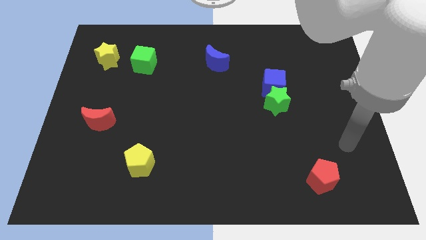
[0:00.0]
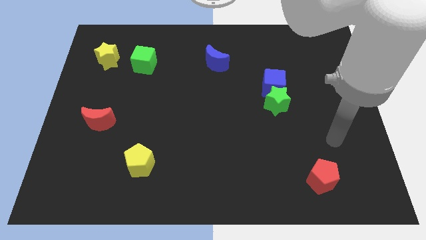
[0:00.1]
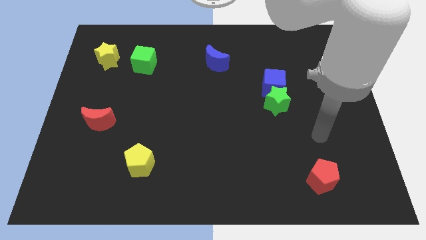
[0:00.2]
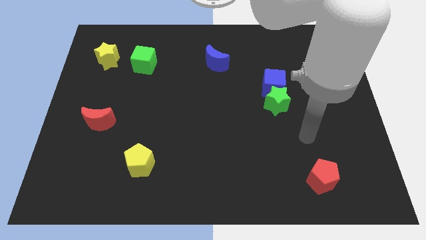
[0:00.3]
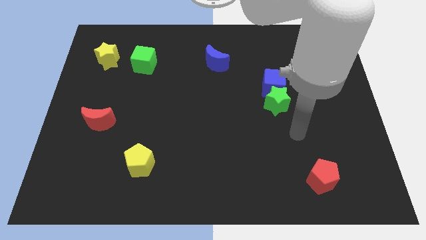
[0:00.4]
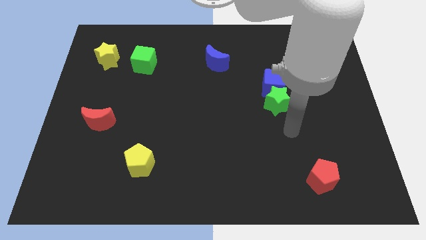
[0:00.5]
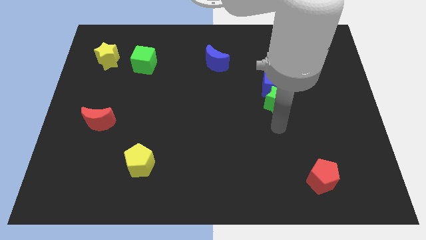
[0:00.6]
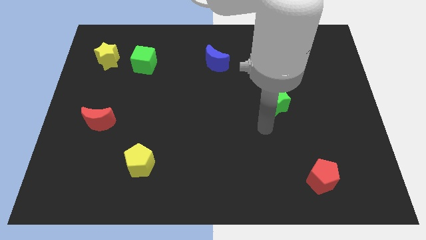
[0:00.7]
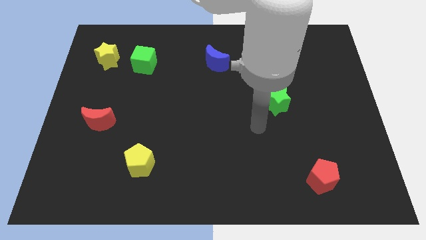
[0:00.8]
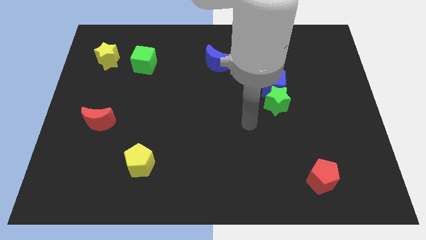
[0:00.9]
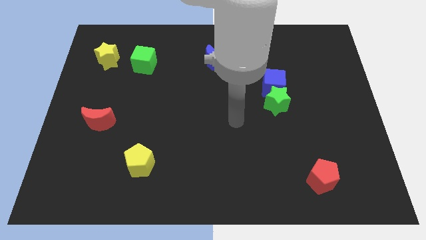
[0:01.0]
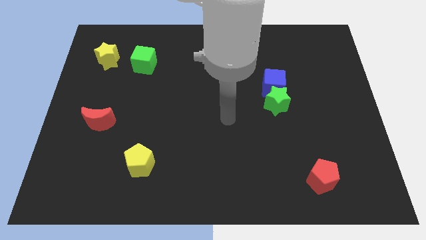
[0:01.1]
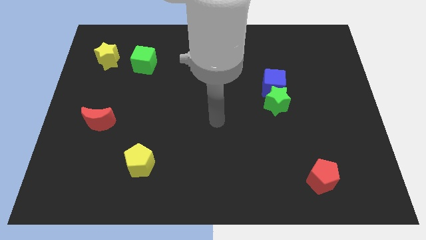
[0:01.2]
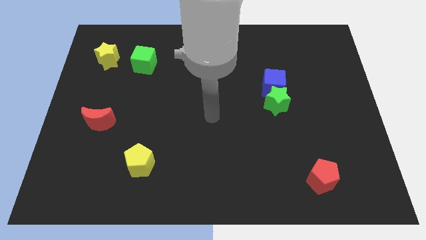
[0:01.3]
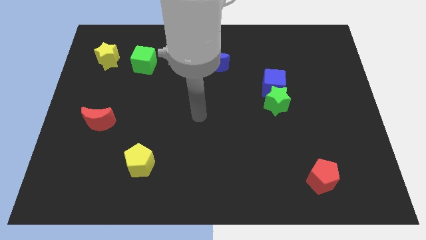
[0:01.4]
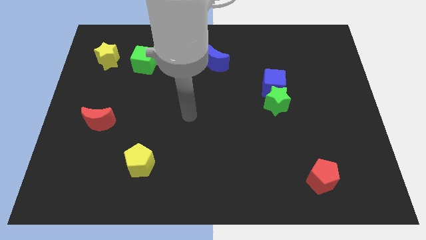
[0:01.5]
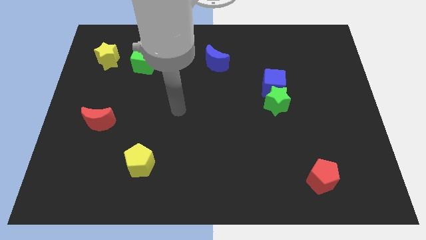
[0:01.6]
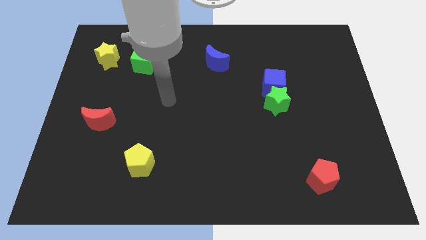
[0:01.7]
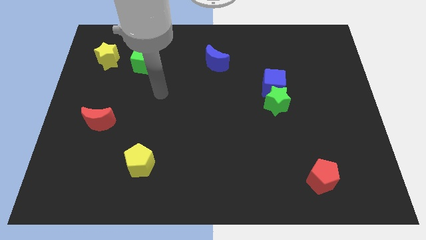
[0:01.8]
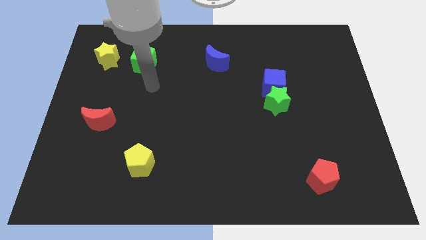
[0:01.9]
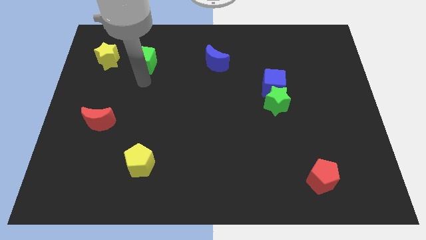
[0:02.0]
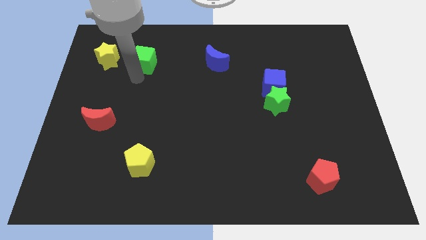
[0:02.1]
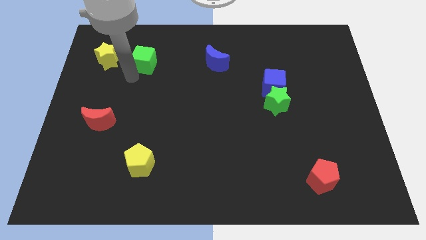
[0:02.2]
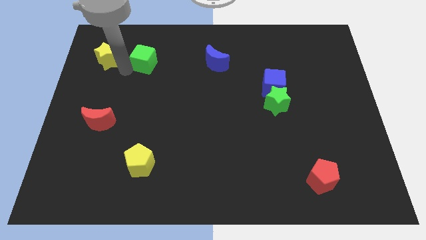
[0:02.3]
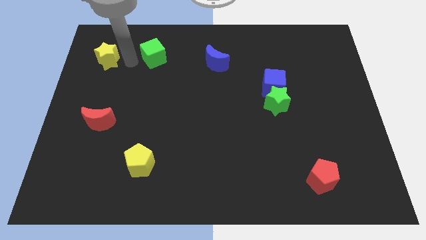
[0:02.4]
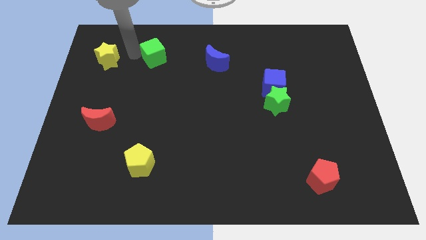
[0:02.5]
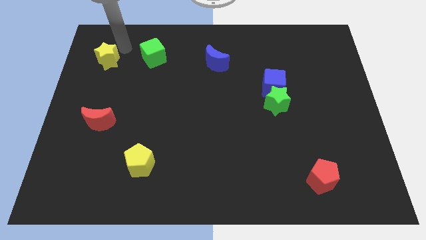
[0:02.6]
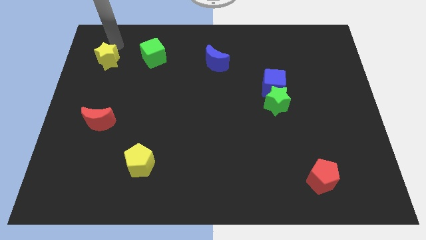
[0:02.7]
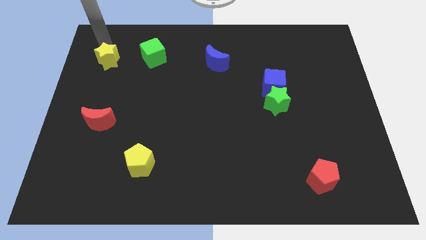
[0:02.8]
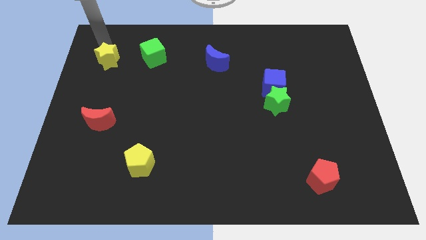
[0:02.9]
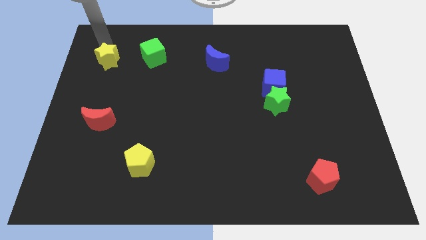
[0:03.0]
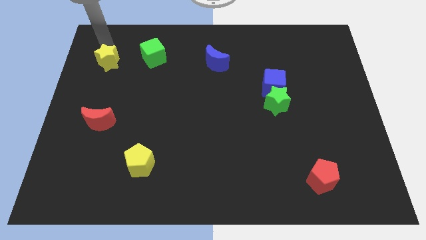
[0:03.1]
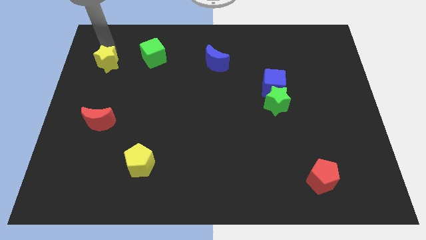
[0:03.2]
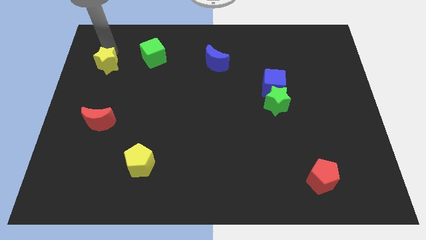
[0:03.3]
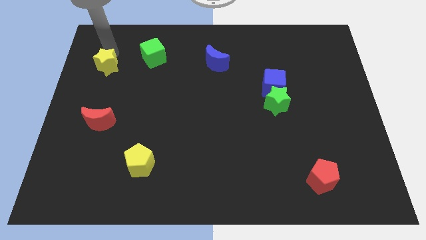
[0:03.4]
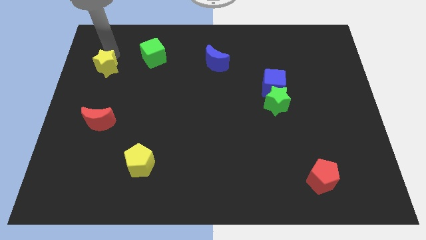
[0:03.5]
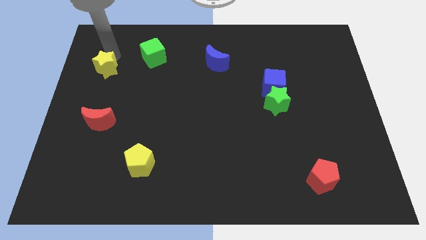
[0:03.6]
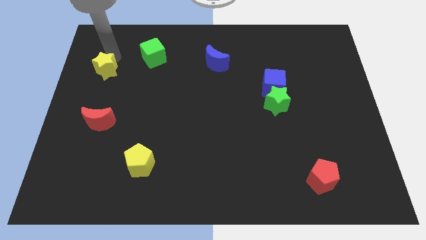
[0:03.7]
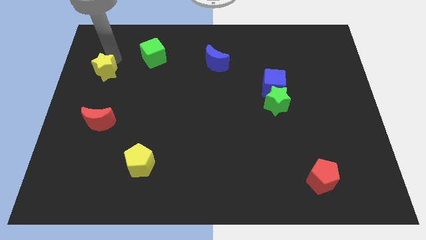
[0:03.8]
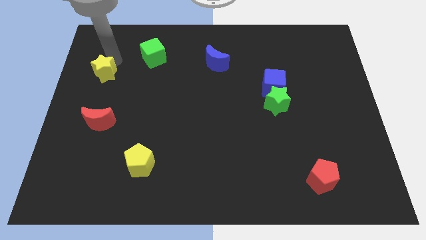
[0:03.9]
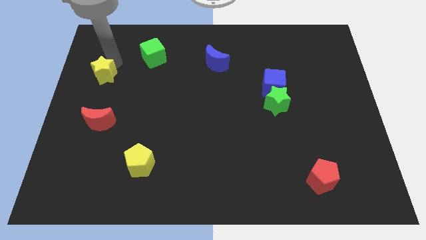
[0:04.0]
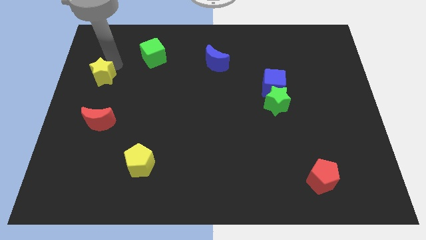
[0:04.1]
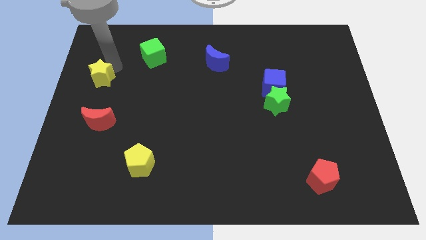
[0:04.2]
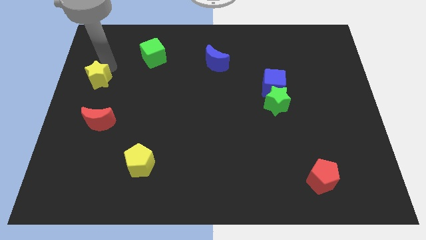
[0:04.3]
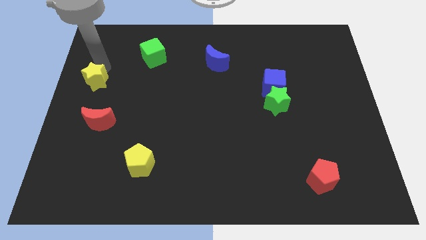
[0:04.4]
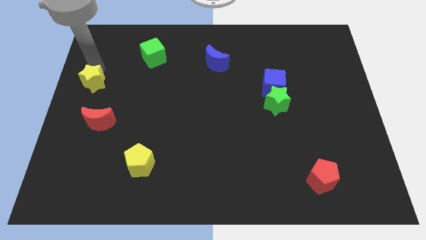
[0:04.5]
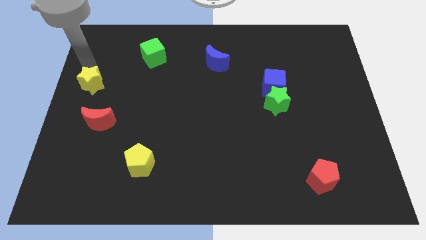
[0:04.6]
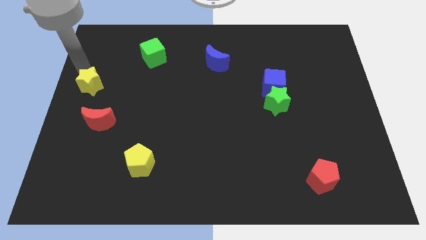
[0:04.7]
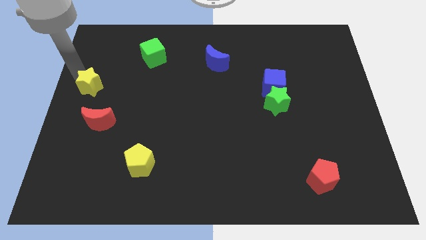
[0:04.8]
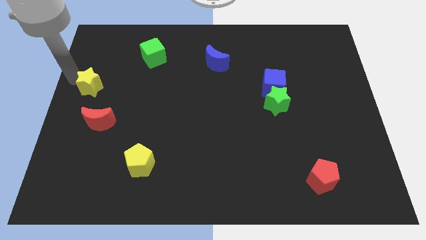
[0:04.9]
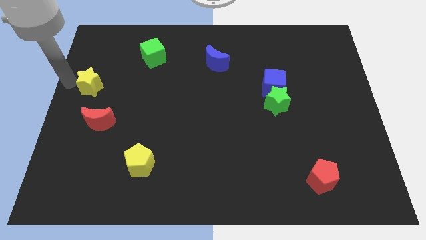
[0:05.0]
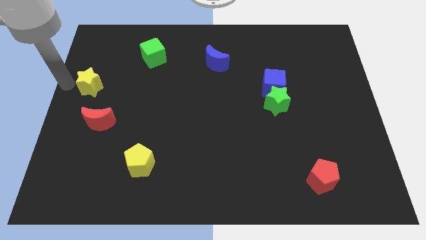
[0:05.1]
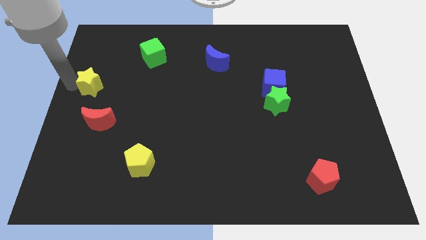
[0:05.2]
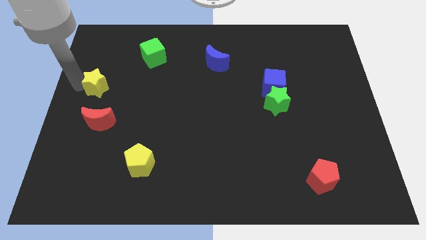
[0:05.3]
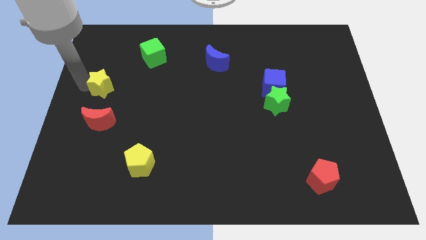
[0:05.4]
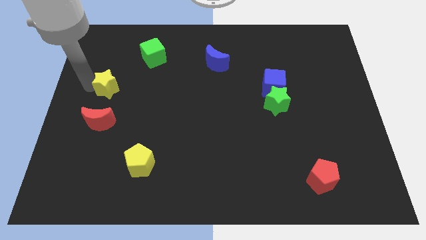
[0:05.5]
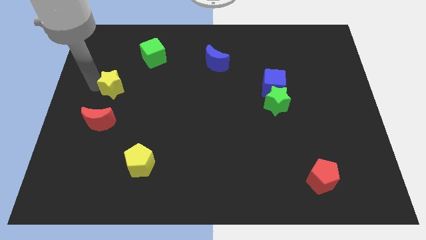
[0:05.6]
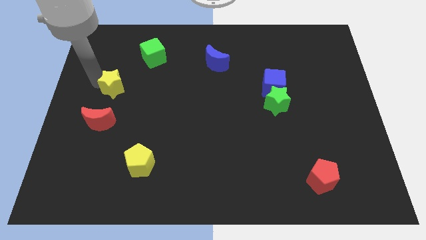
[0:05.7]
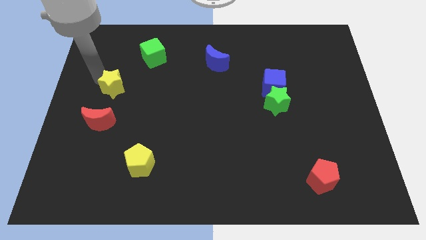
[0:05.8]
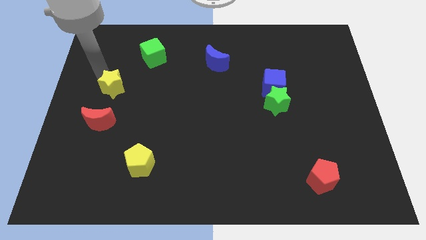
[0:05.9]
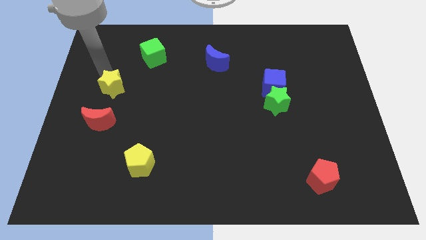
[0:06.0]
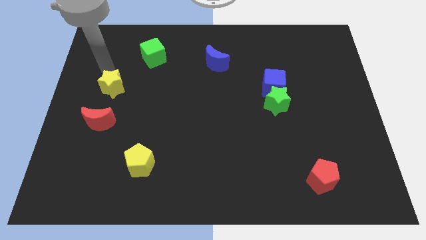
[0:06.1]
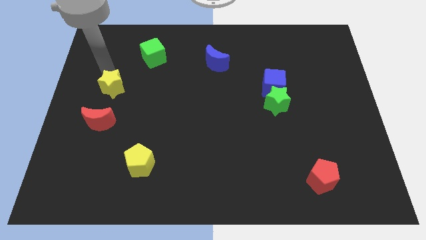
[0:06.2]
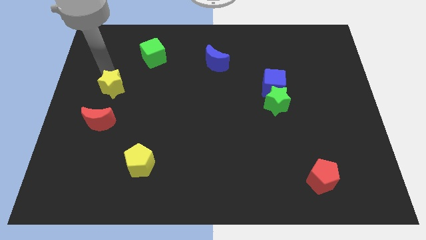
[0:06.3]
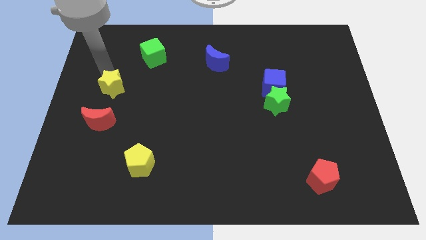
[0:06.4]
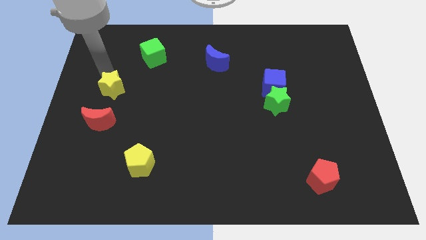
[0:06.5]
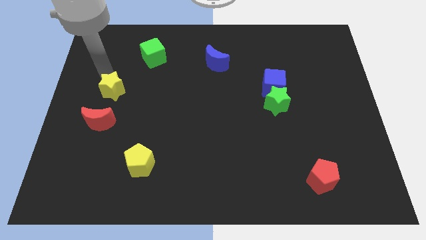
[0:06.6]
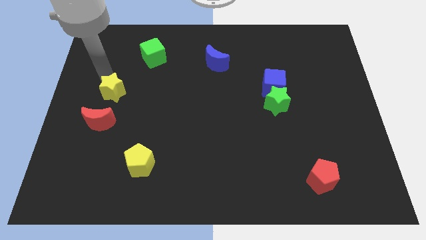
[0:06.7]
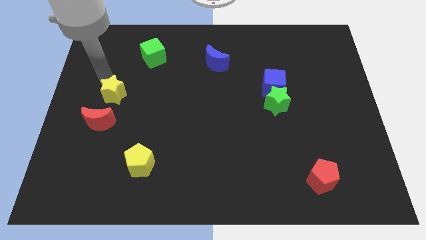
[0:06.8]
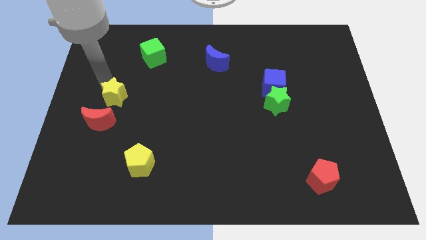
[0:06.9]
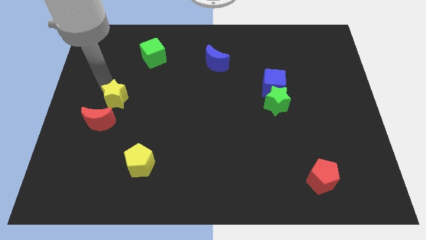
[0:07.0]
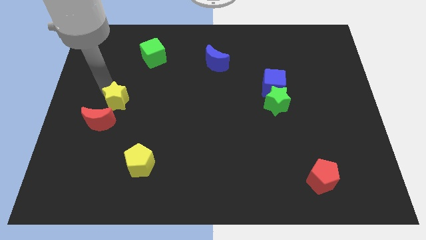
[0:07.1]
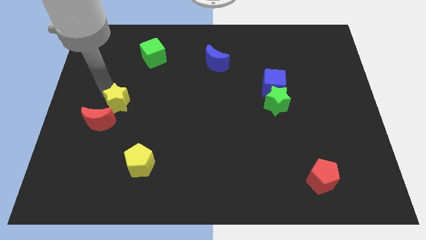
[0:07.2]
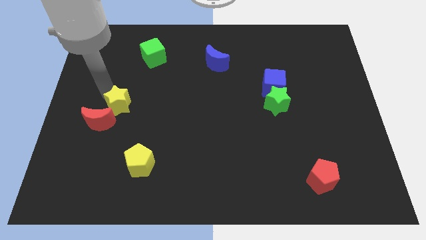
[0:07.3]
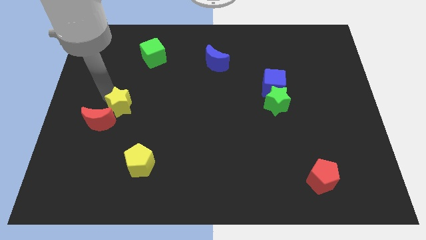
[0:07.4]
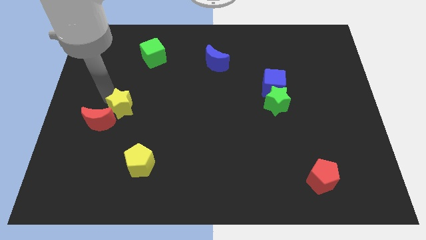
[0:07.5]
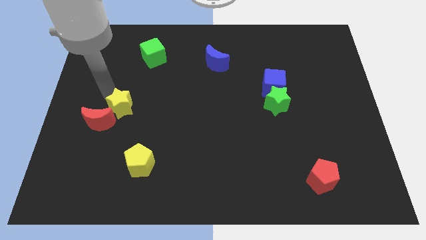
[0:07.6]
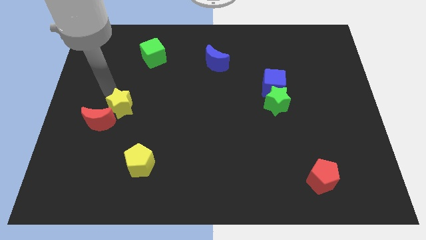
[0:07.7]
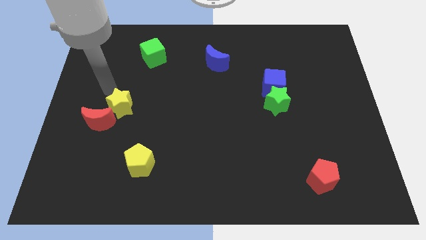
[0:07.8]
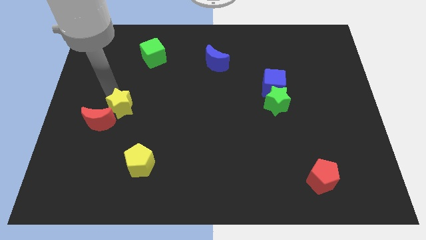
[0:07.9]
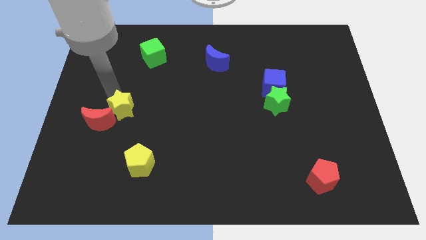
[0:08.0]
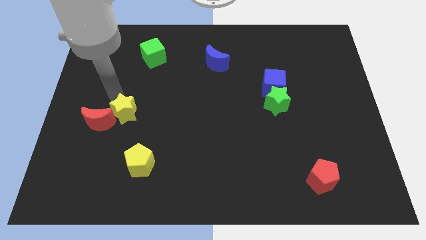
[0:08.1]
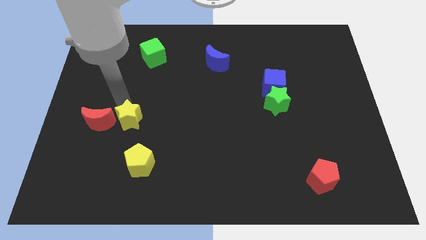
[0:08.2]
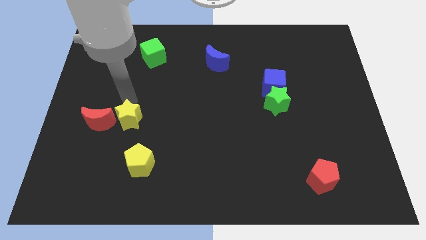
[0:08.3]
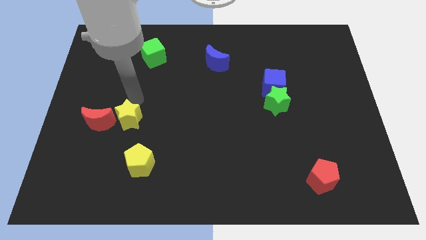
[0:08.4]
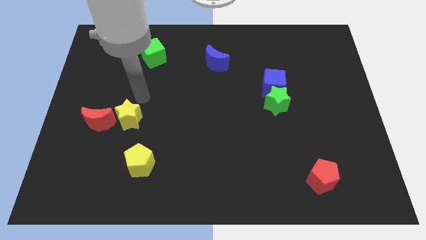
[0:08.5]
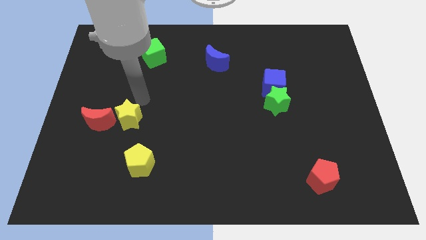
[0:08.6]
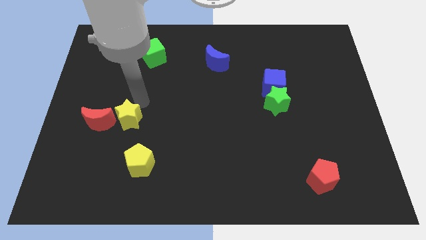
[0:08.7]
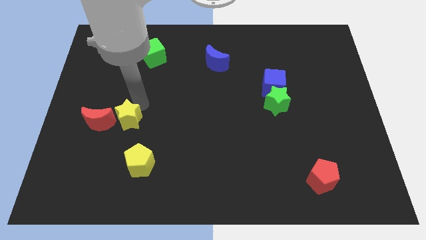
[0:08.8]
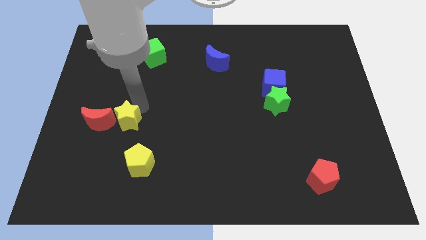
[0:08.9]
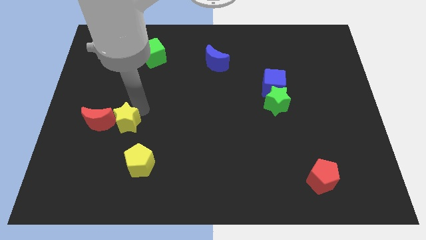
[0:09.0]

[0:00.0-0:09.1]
slide the yellow star diagonally down and to the right of the red moon
